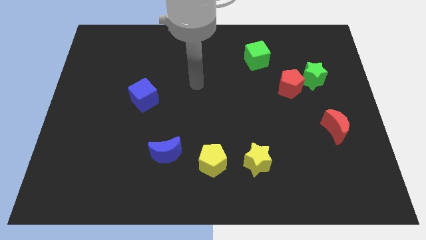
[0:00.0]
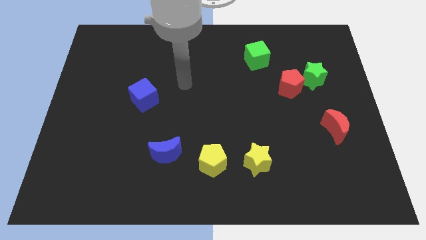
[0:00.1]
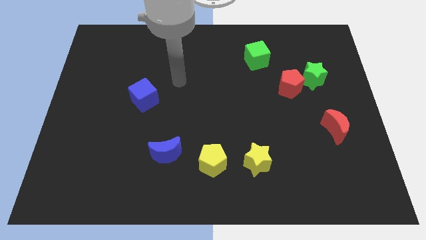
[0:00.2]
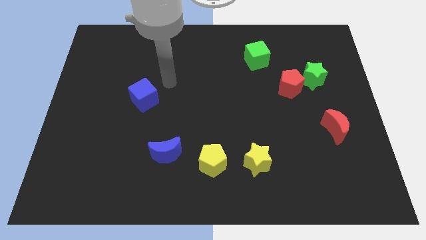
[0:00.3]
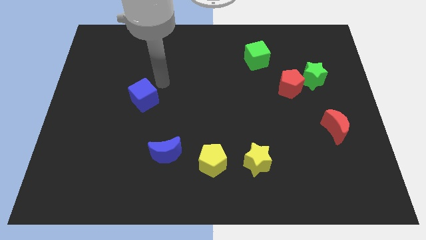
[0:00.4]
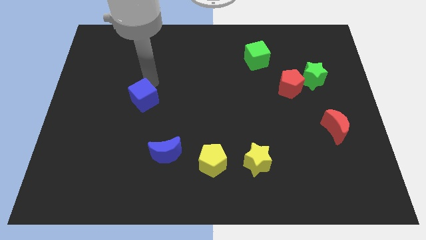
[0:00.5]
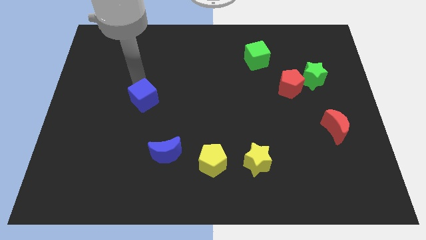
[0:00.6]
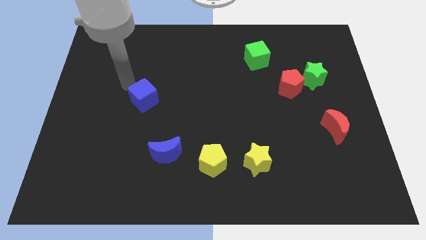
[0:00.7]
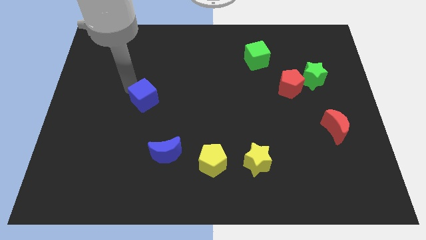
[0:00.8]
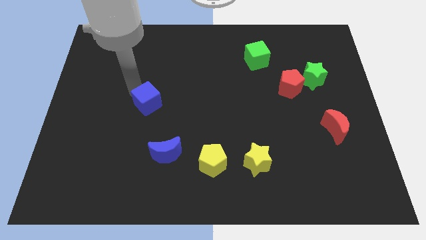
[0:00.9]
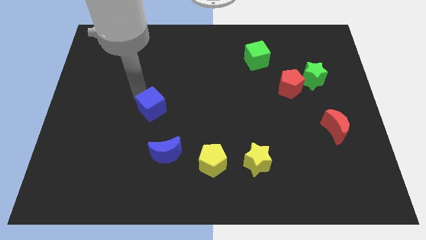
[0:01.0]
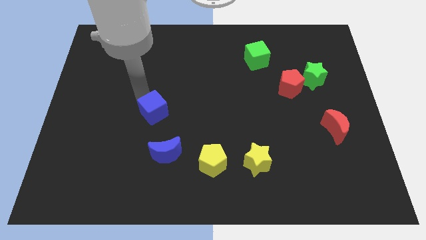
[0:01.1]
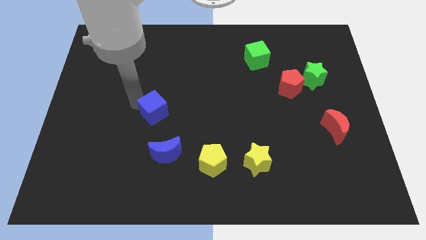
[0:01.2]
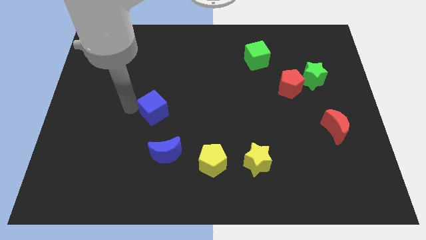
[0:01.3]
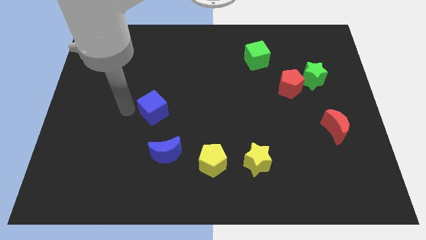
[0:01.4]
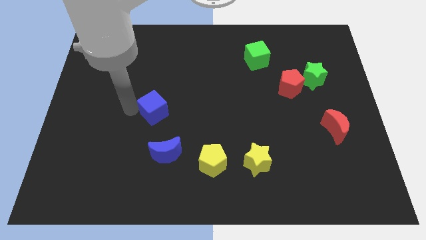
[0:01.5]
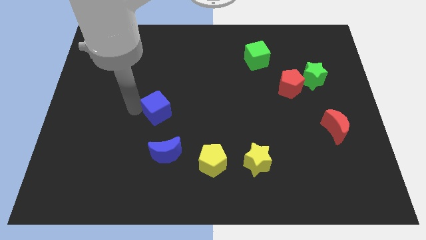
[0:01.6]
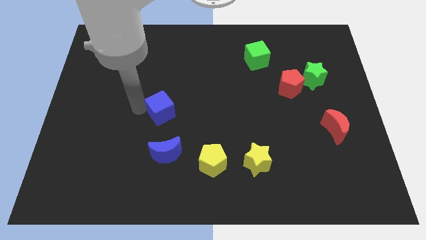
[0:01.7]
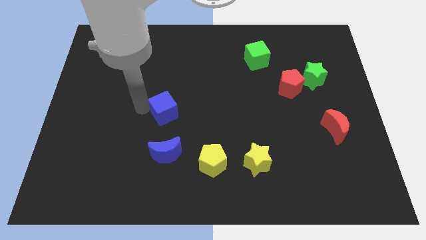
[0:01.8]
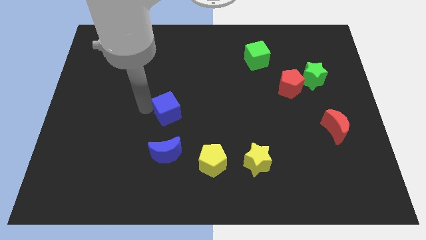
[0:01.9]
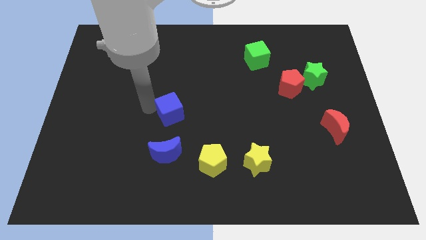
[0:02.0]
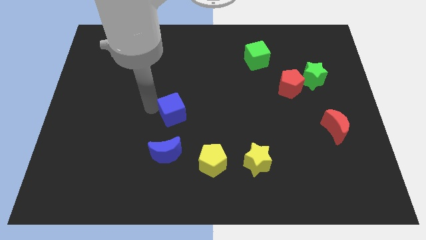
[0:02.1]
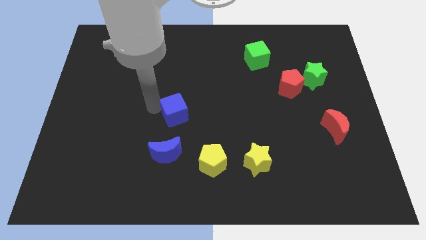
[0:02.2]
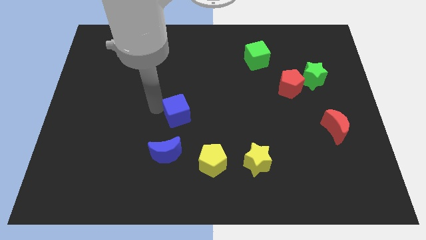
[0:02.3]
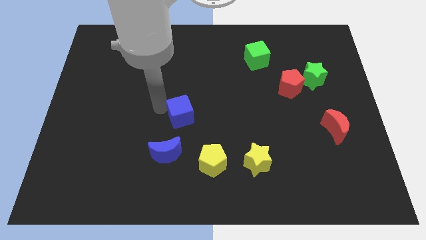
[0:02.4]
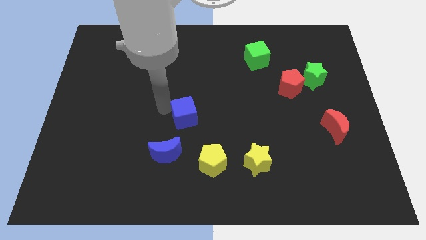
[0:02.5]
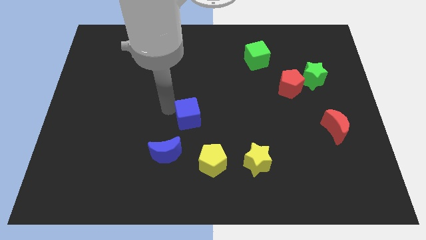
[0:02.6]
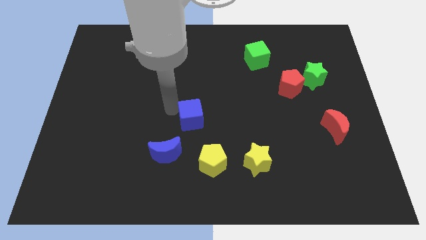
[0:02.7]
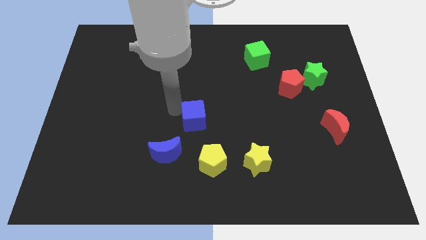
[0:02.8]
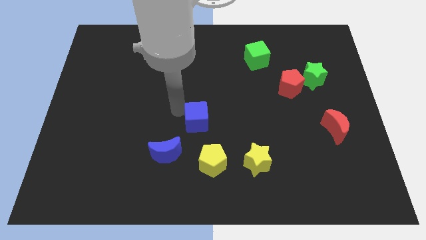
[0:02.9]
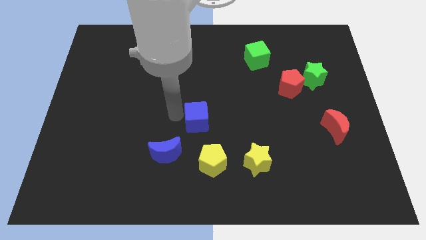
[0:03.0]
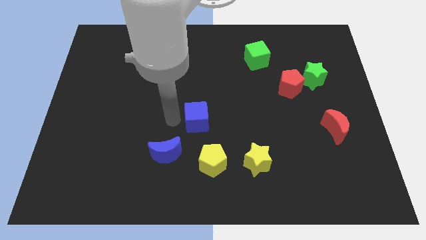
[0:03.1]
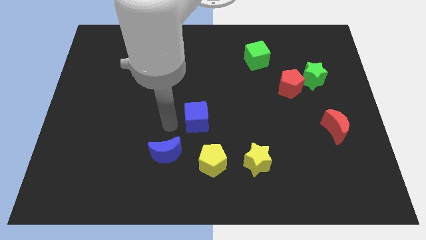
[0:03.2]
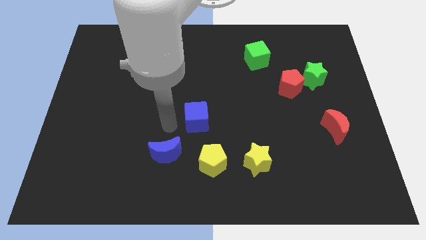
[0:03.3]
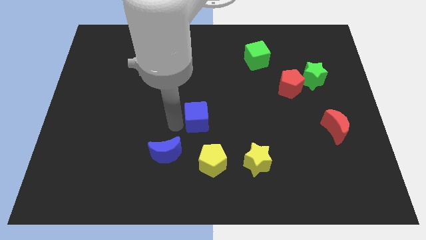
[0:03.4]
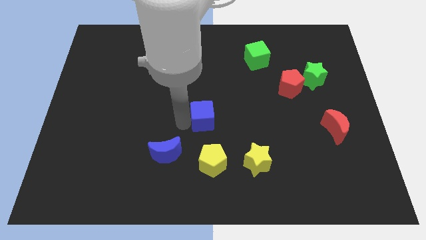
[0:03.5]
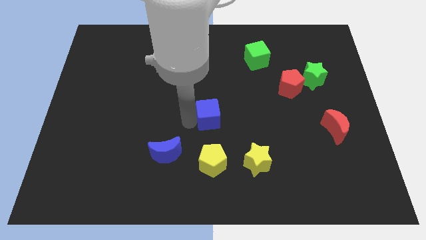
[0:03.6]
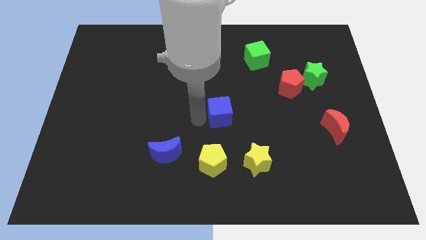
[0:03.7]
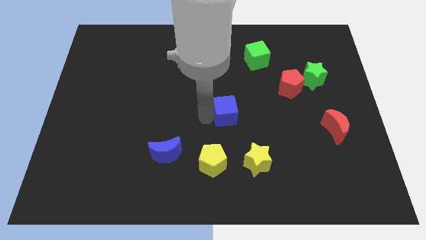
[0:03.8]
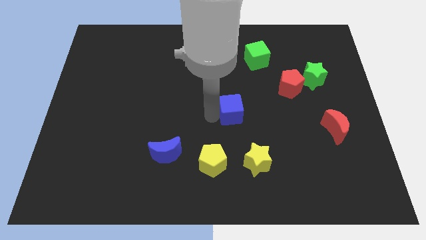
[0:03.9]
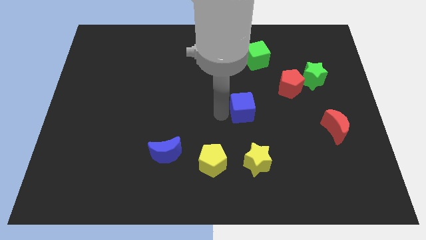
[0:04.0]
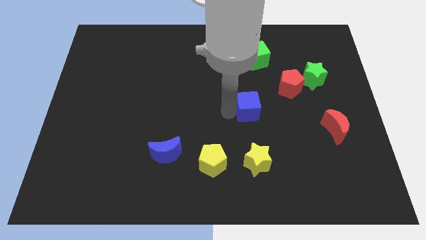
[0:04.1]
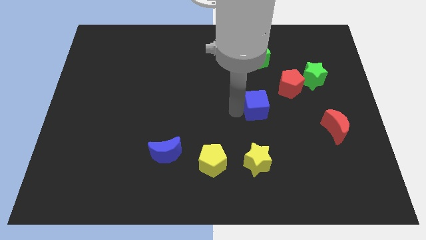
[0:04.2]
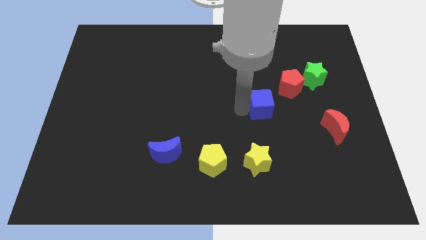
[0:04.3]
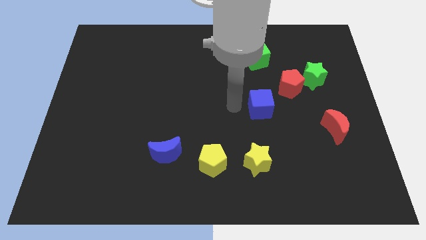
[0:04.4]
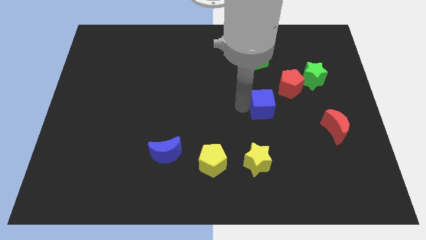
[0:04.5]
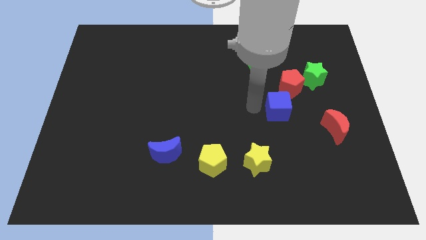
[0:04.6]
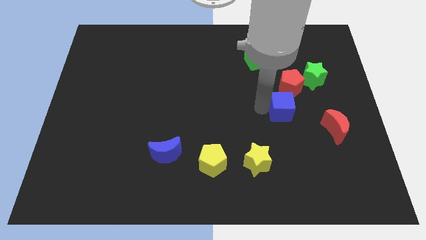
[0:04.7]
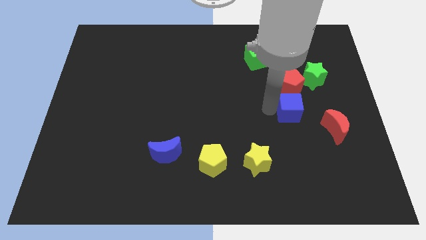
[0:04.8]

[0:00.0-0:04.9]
move the blue cube diagonally up and to the left of the red moon

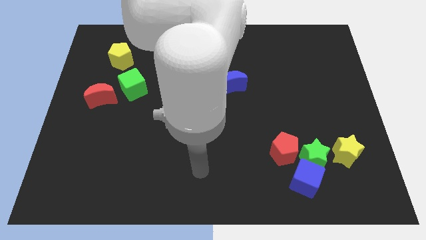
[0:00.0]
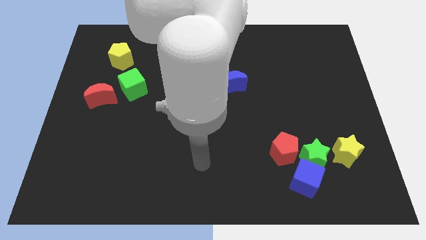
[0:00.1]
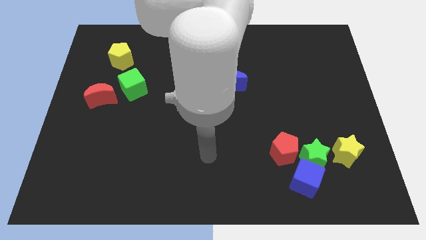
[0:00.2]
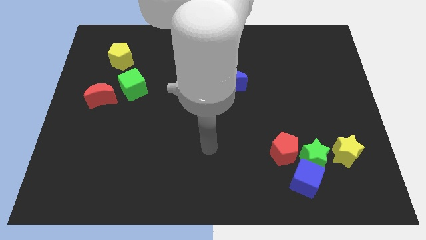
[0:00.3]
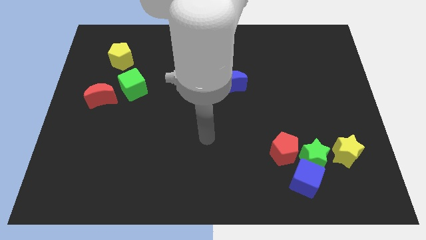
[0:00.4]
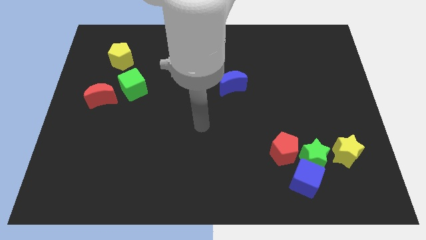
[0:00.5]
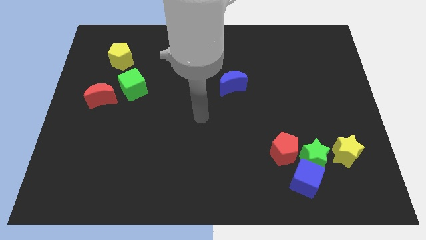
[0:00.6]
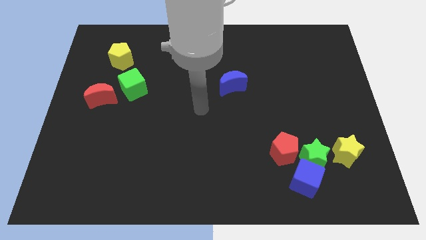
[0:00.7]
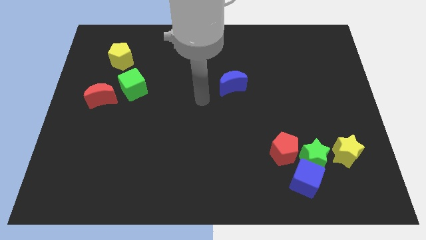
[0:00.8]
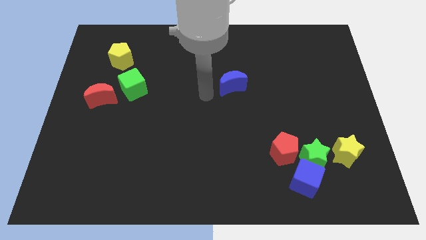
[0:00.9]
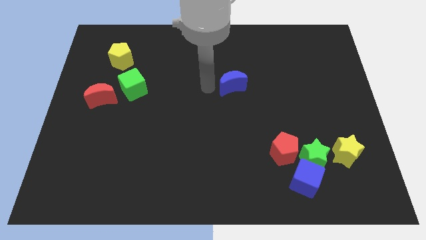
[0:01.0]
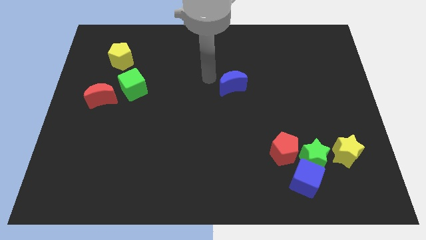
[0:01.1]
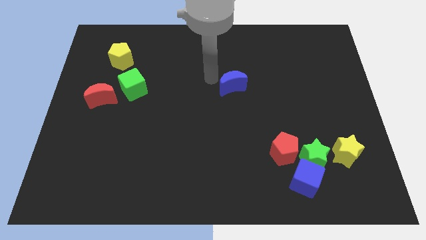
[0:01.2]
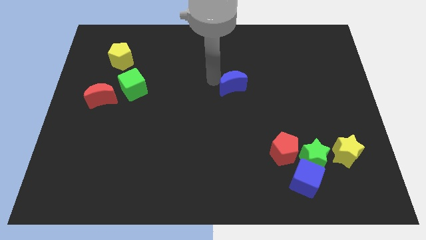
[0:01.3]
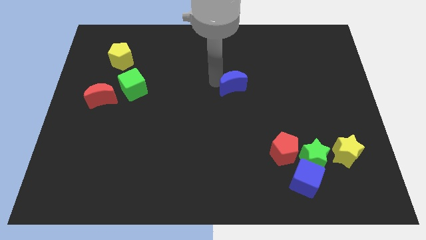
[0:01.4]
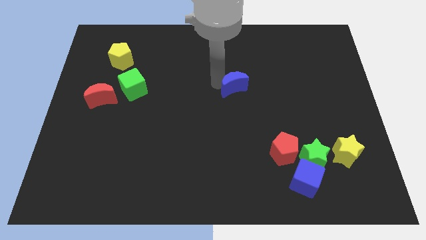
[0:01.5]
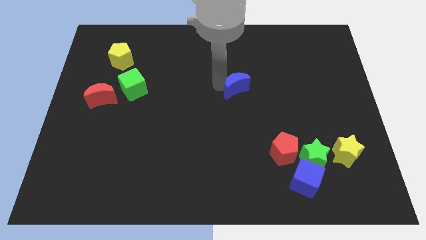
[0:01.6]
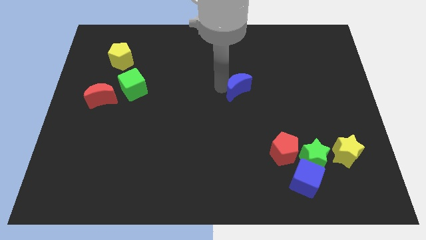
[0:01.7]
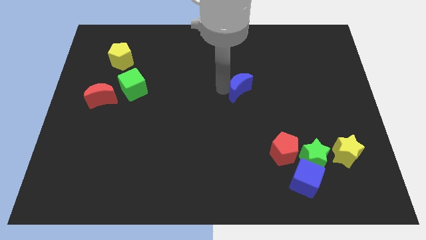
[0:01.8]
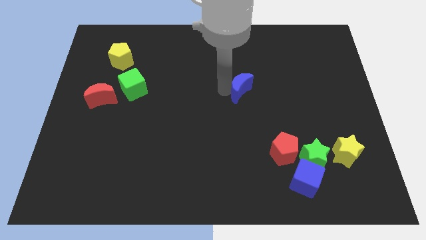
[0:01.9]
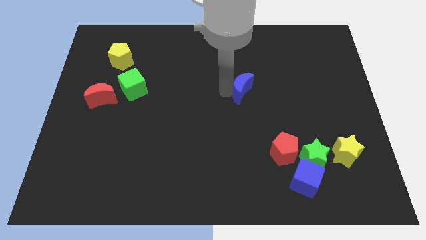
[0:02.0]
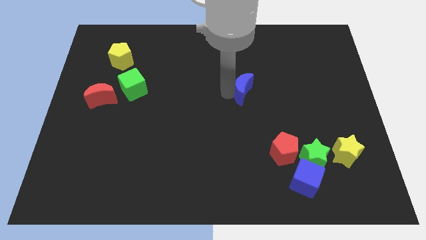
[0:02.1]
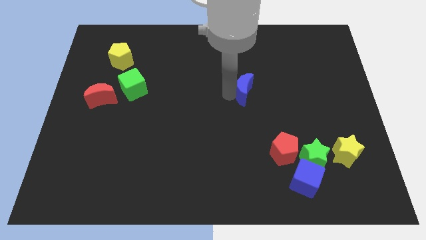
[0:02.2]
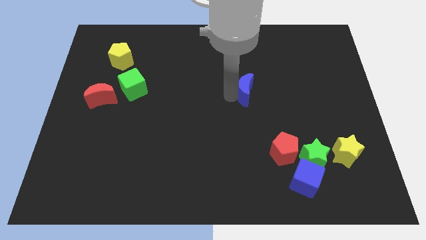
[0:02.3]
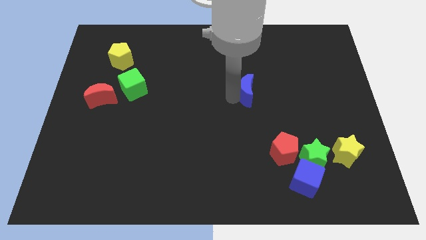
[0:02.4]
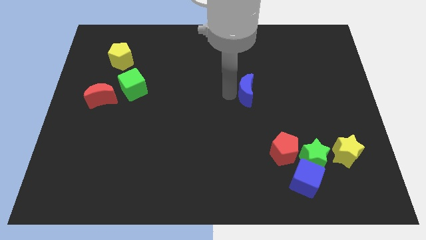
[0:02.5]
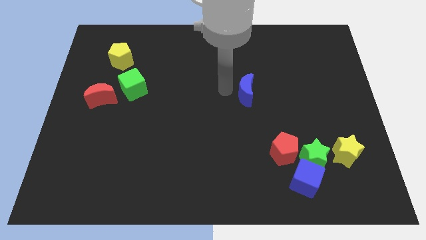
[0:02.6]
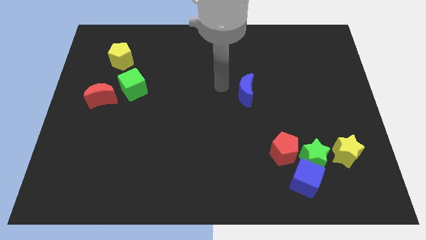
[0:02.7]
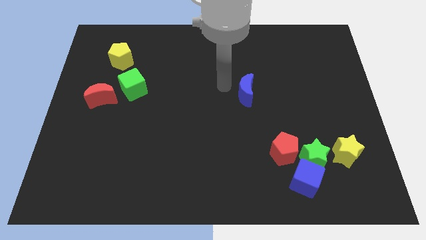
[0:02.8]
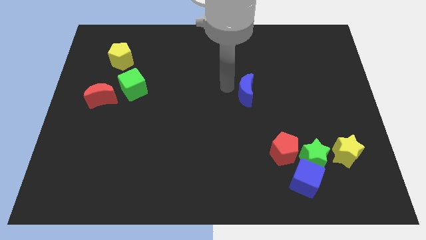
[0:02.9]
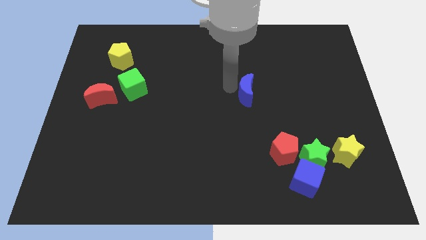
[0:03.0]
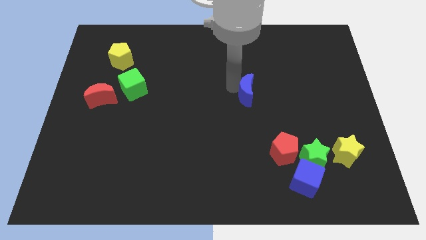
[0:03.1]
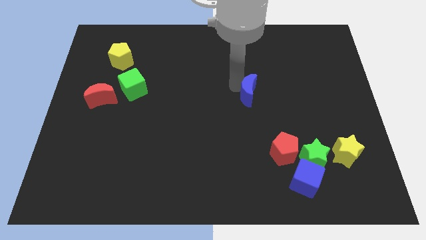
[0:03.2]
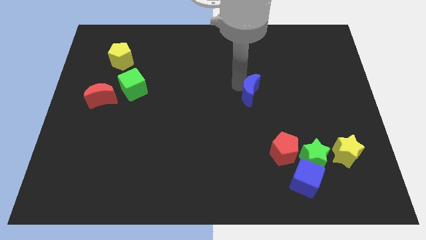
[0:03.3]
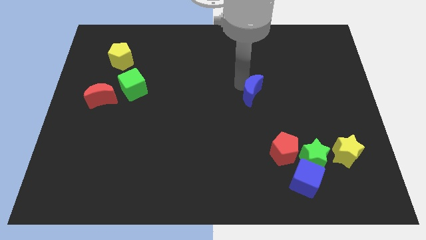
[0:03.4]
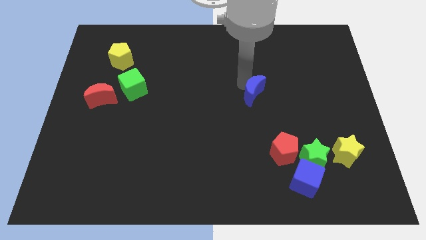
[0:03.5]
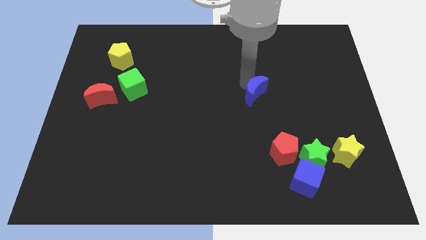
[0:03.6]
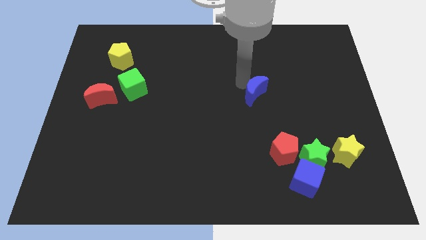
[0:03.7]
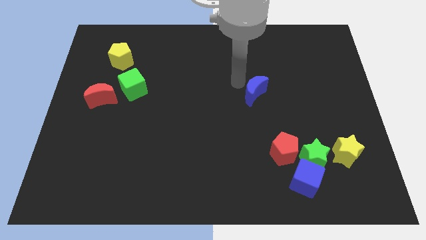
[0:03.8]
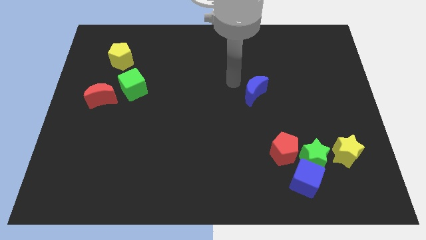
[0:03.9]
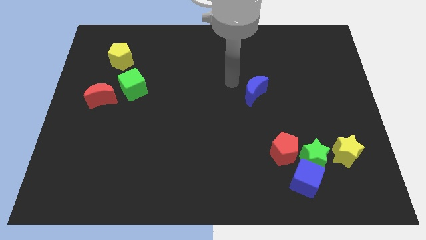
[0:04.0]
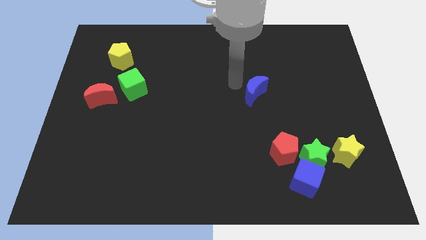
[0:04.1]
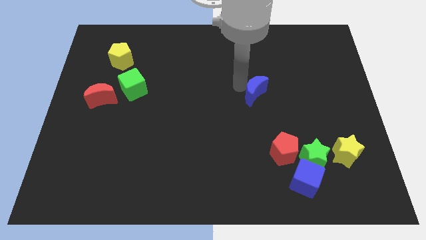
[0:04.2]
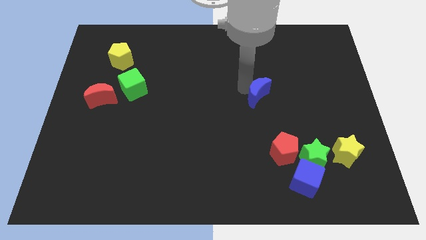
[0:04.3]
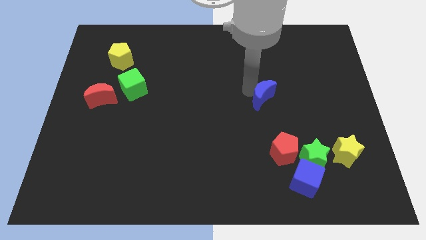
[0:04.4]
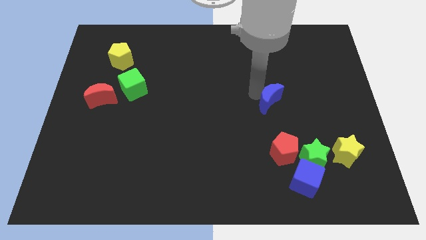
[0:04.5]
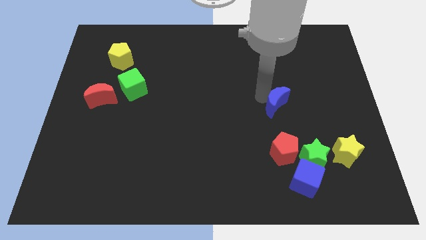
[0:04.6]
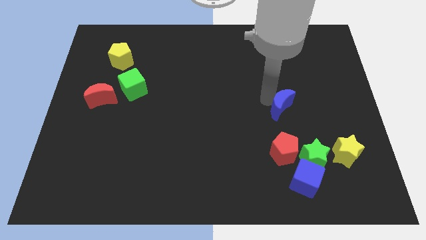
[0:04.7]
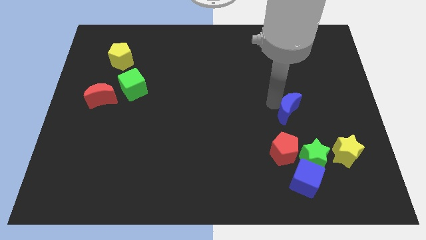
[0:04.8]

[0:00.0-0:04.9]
move the blue moon to the top of the green star
